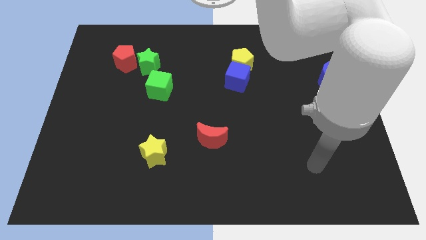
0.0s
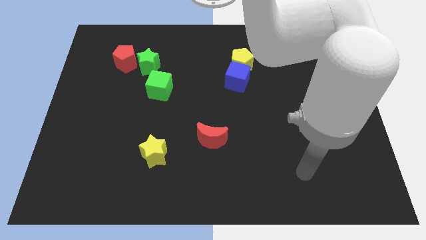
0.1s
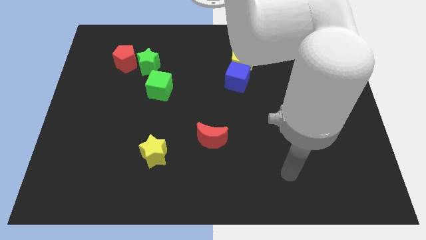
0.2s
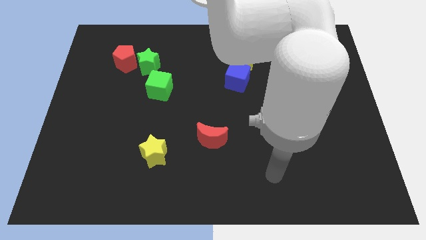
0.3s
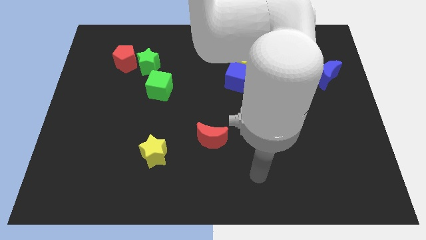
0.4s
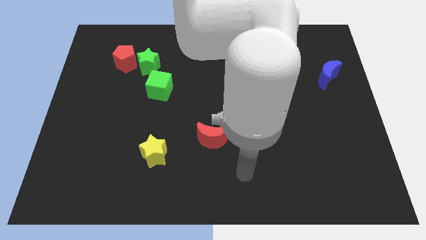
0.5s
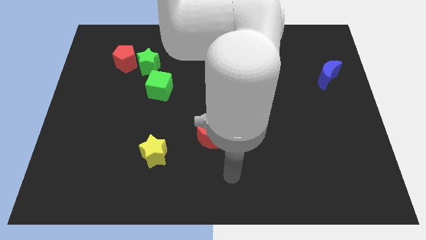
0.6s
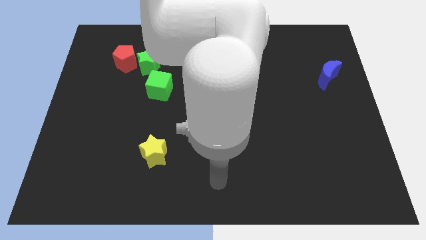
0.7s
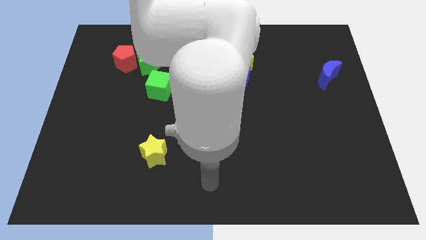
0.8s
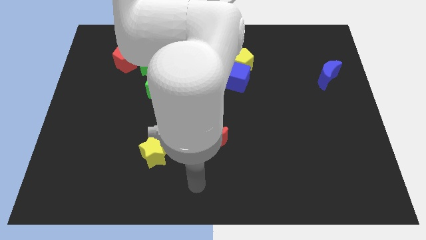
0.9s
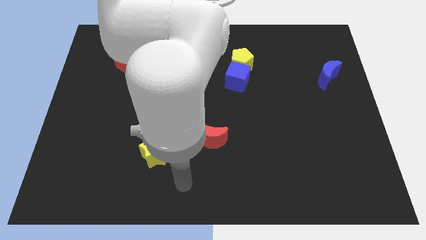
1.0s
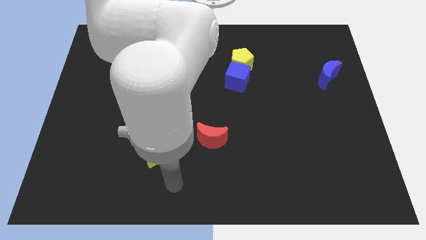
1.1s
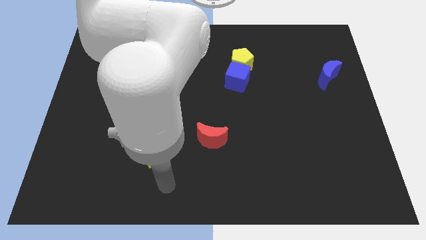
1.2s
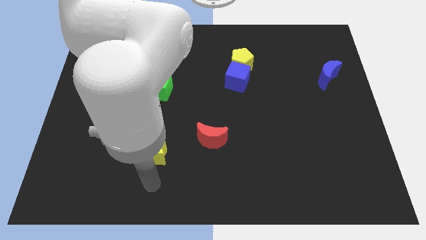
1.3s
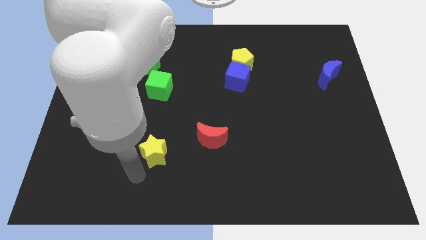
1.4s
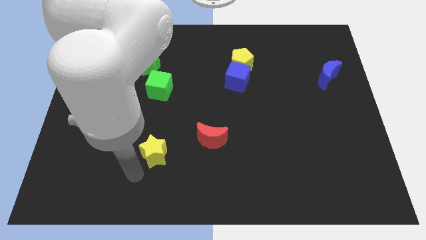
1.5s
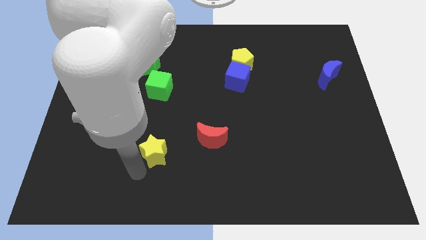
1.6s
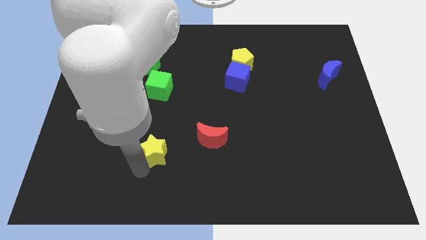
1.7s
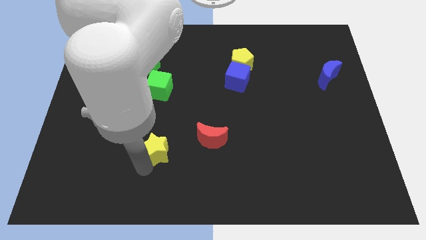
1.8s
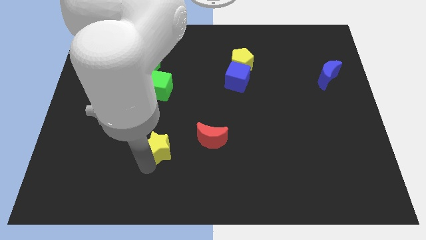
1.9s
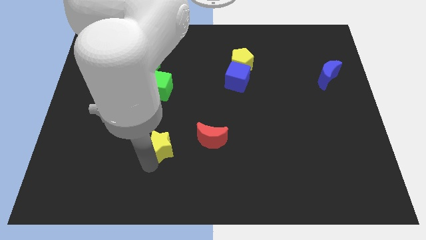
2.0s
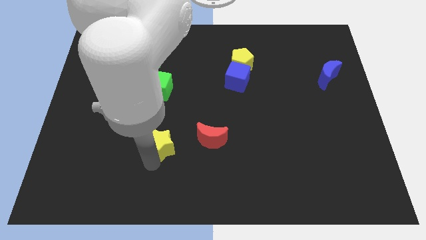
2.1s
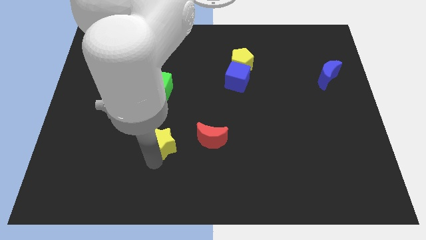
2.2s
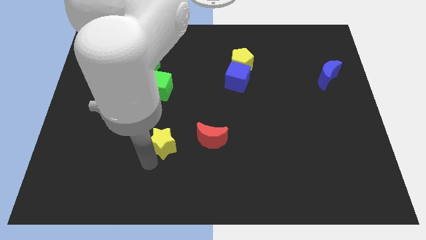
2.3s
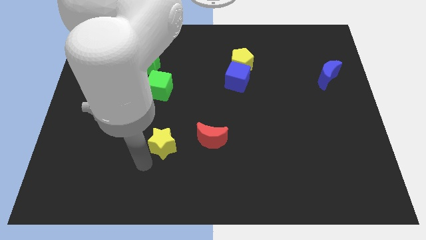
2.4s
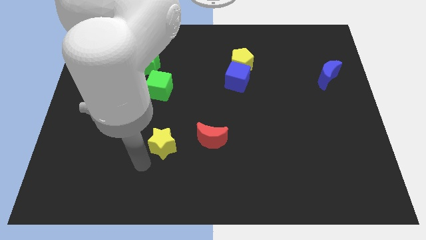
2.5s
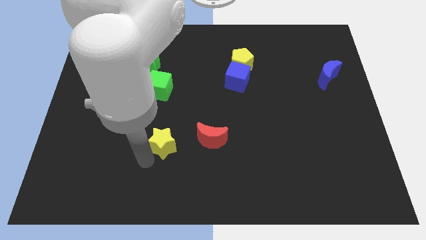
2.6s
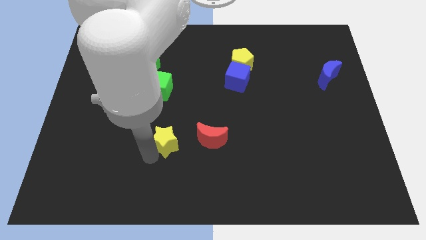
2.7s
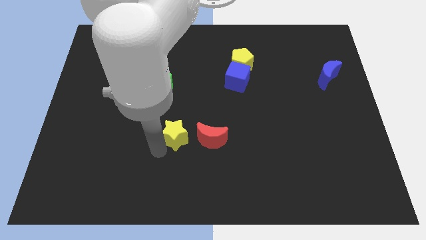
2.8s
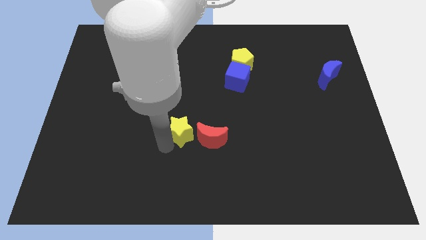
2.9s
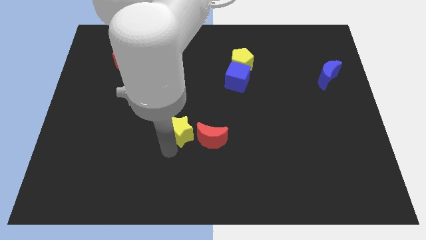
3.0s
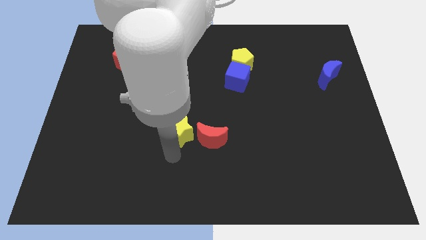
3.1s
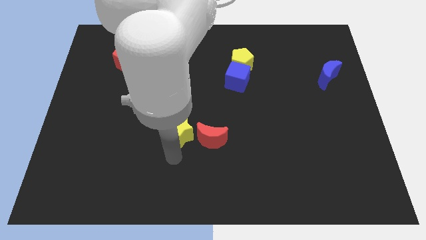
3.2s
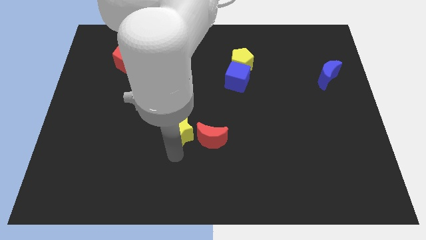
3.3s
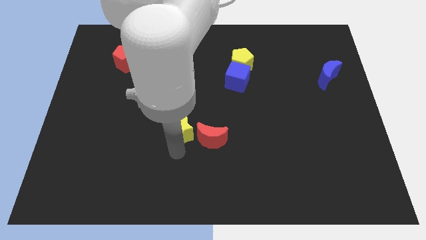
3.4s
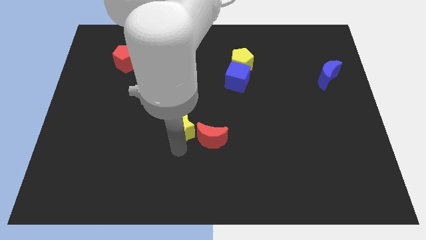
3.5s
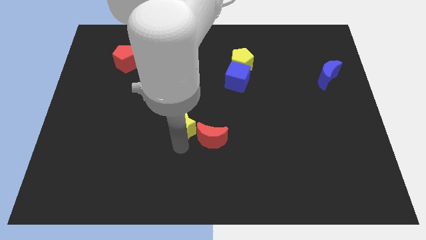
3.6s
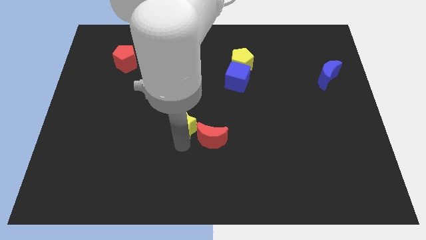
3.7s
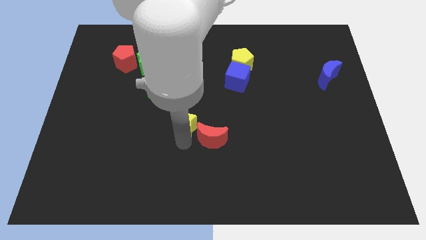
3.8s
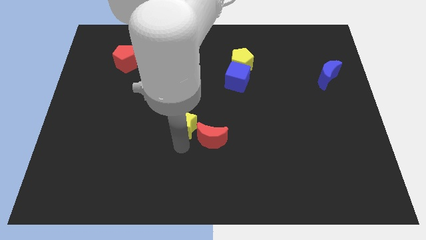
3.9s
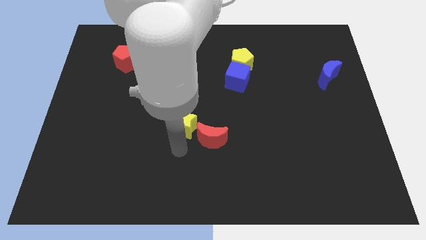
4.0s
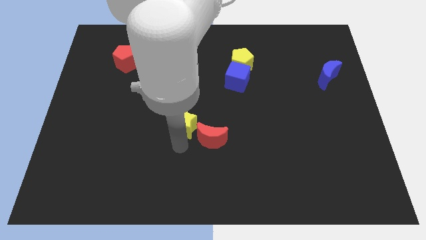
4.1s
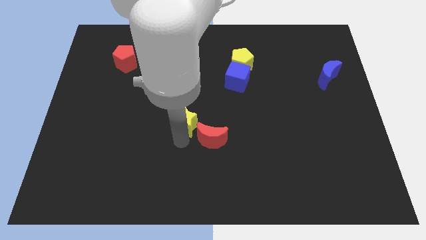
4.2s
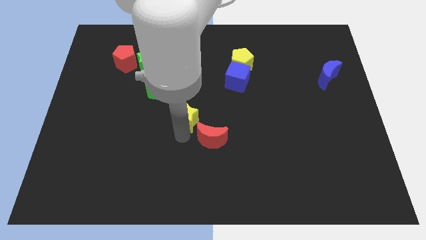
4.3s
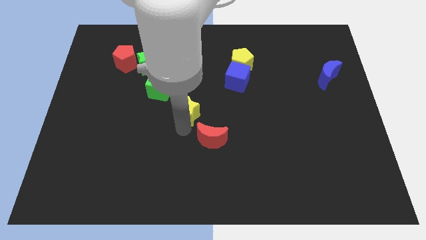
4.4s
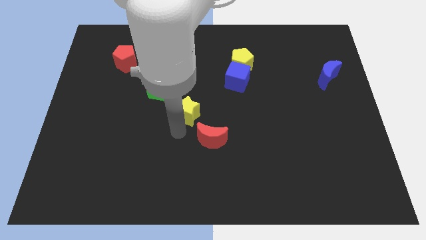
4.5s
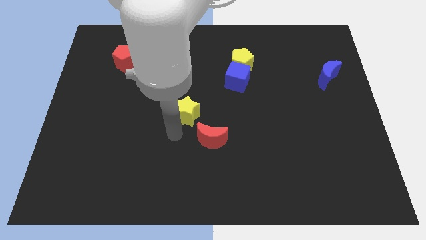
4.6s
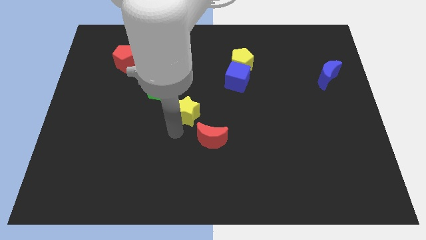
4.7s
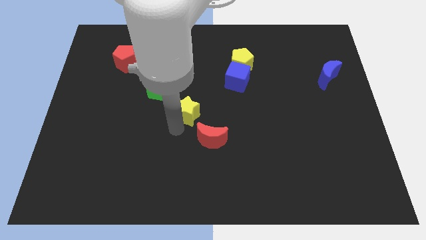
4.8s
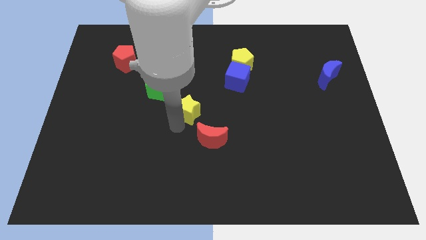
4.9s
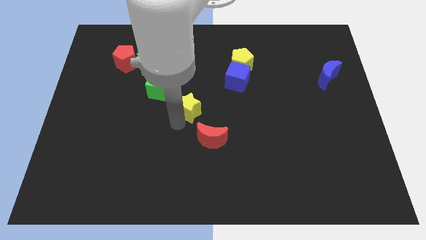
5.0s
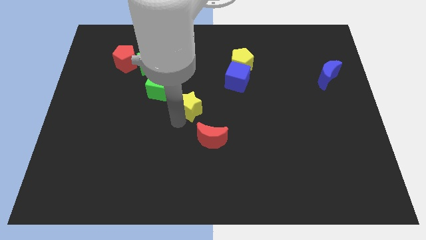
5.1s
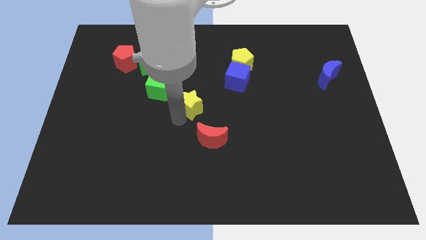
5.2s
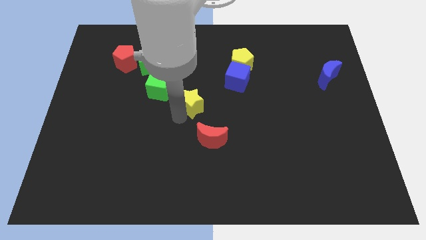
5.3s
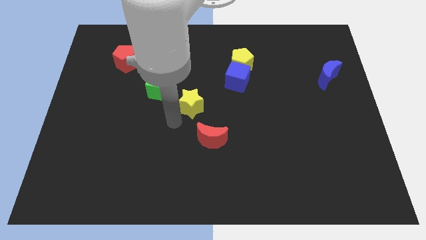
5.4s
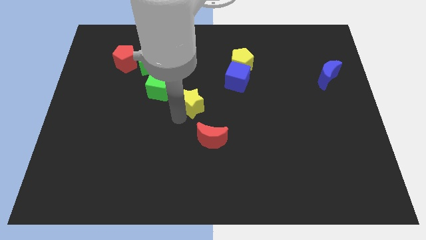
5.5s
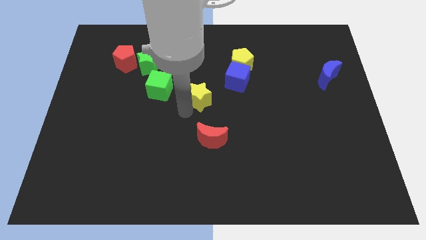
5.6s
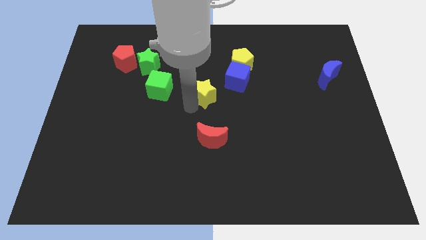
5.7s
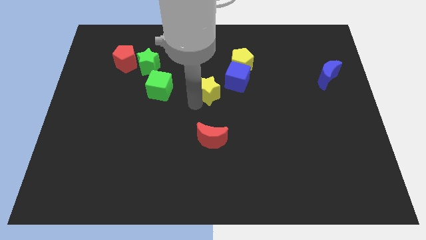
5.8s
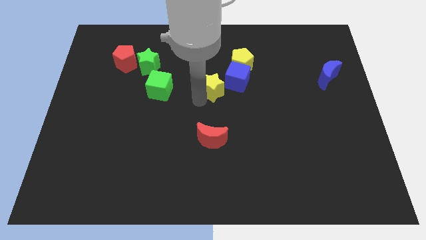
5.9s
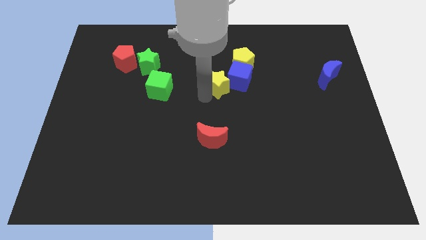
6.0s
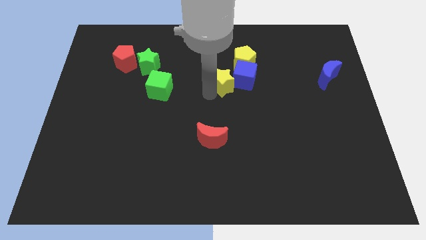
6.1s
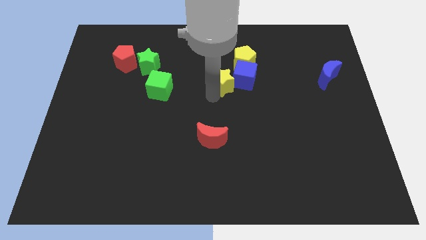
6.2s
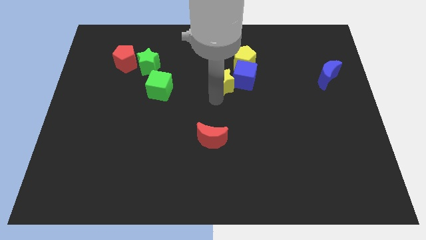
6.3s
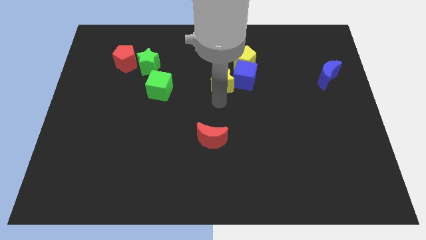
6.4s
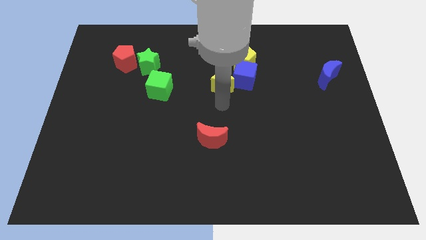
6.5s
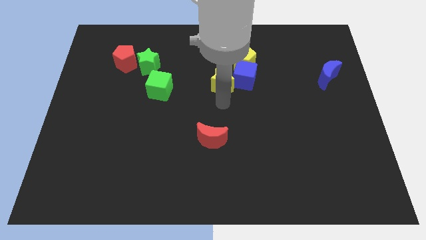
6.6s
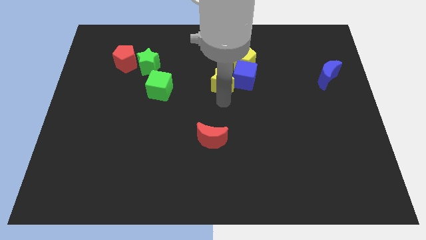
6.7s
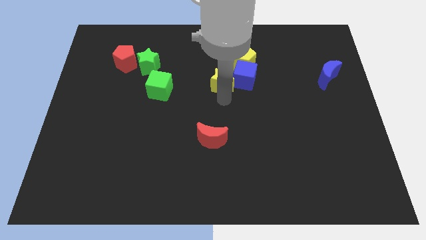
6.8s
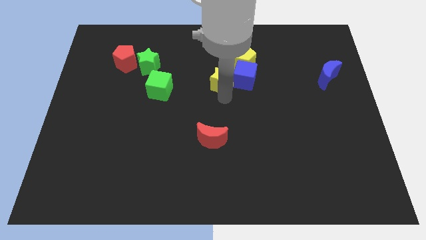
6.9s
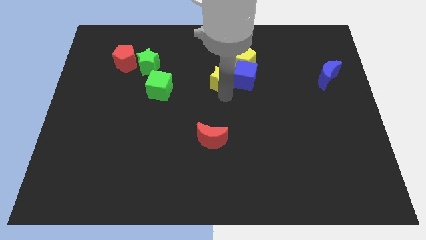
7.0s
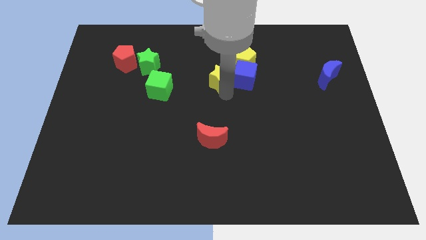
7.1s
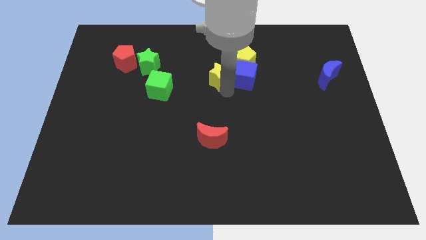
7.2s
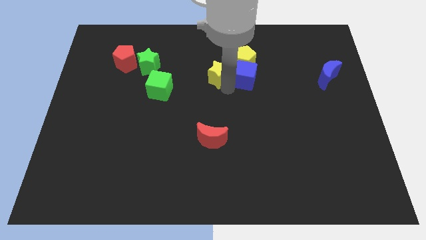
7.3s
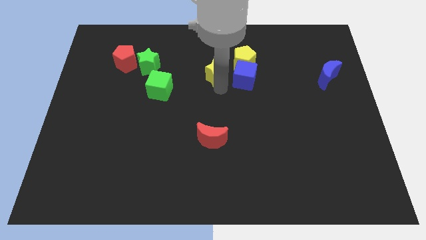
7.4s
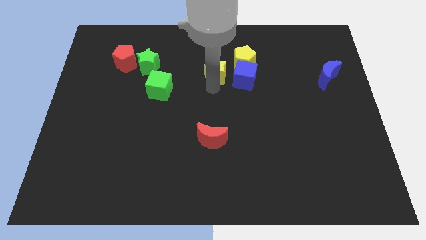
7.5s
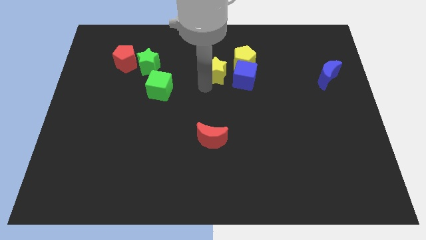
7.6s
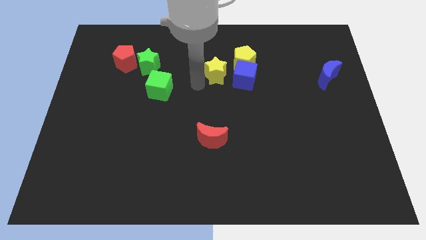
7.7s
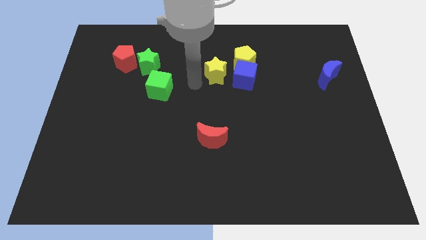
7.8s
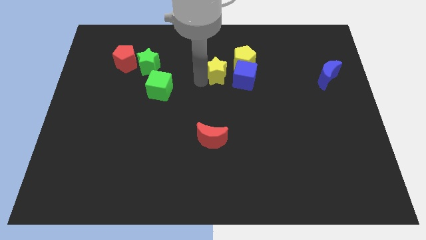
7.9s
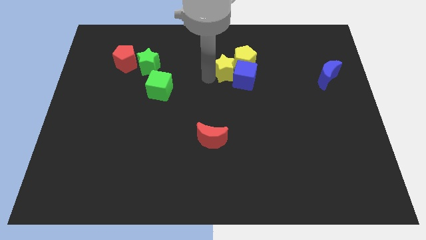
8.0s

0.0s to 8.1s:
put the yellow star to the yellow pentagon
